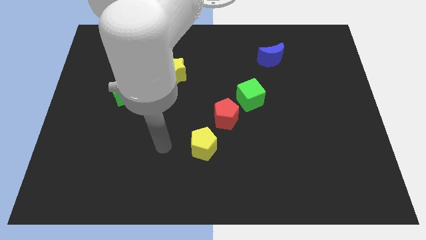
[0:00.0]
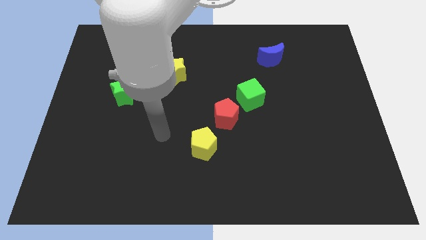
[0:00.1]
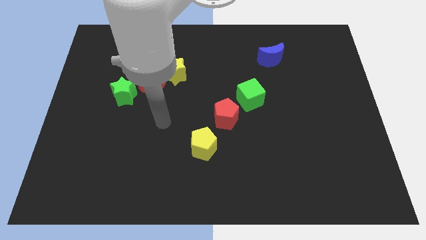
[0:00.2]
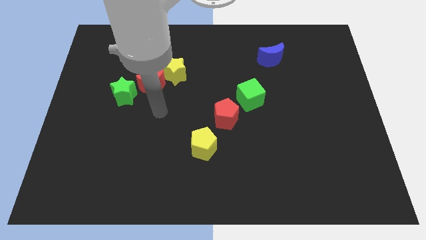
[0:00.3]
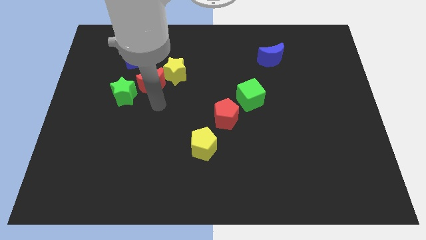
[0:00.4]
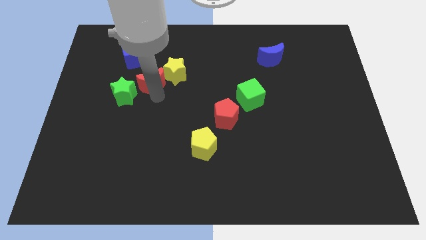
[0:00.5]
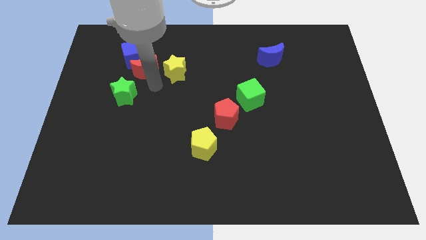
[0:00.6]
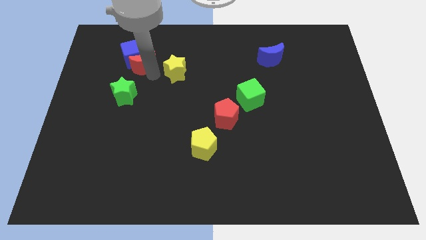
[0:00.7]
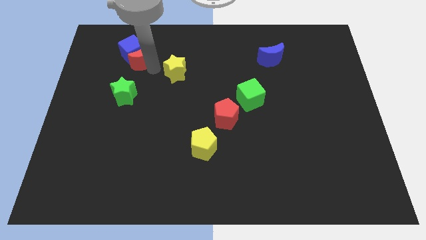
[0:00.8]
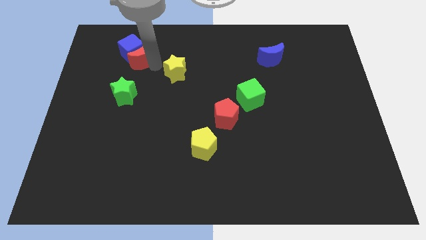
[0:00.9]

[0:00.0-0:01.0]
pull the yellow star apart from the red moon

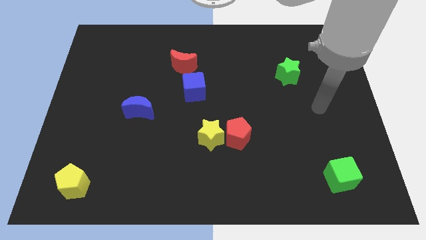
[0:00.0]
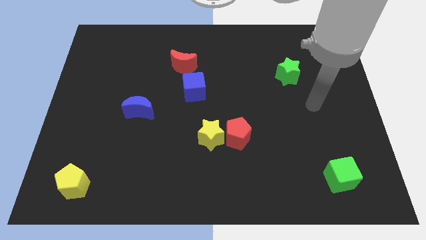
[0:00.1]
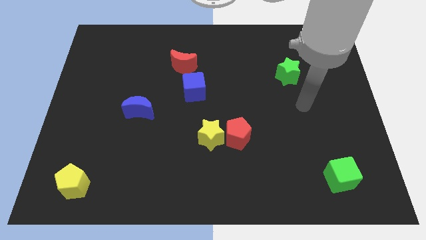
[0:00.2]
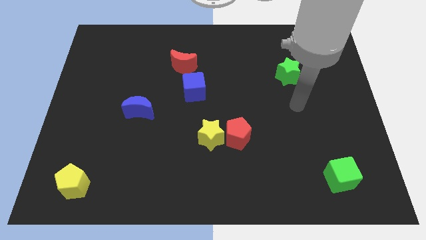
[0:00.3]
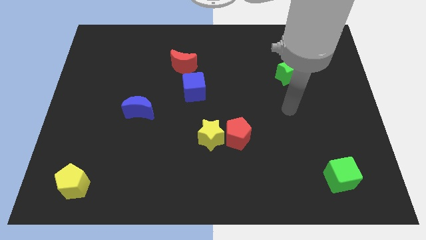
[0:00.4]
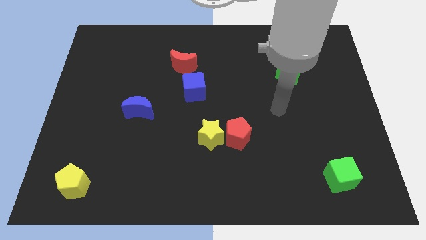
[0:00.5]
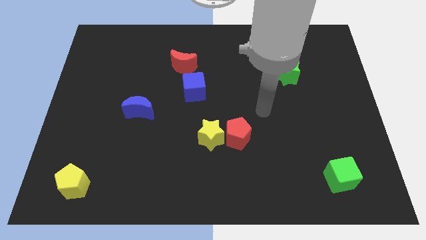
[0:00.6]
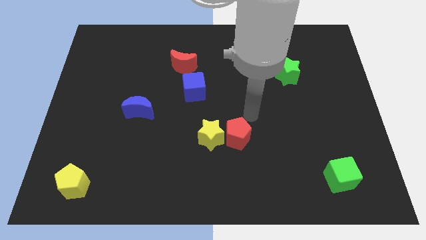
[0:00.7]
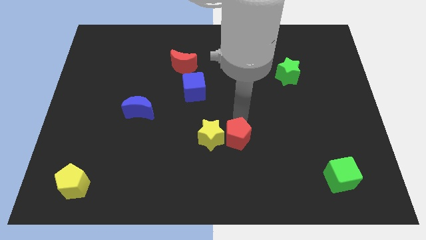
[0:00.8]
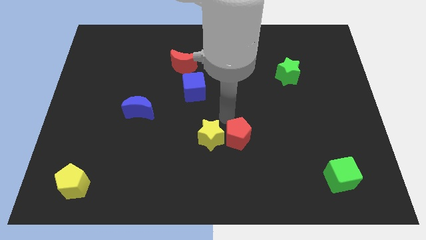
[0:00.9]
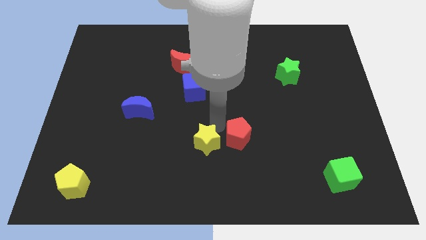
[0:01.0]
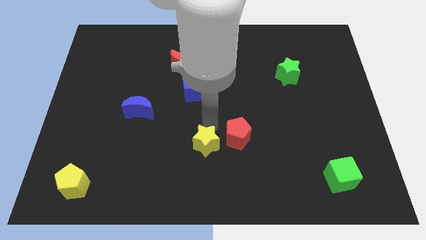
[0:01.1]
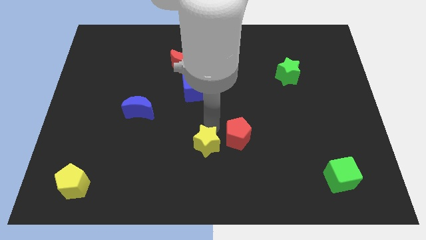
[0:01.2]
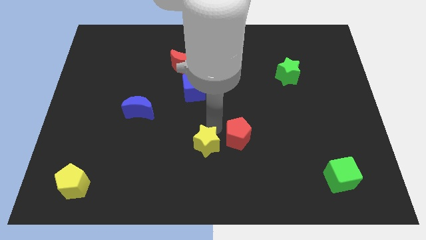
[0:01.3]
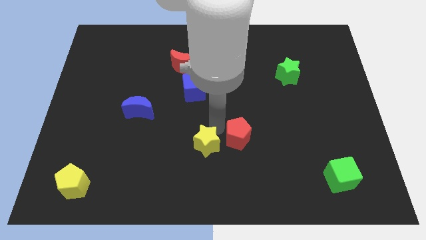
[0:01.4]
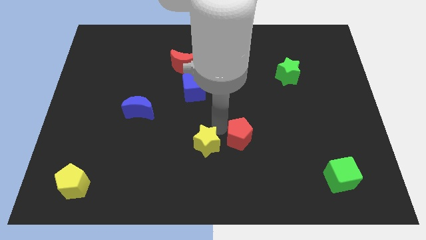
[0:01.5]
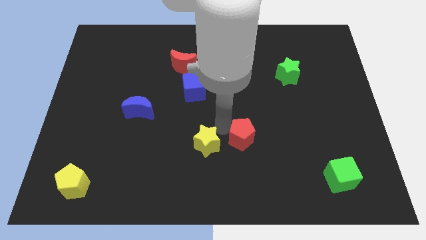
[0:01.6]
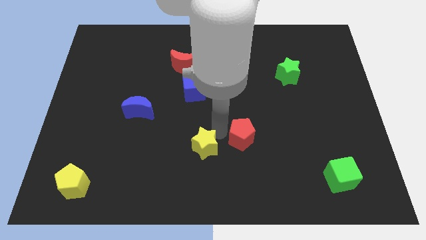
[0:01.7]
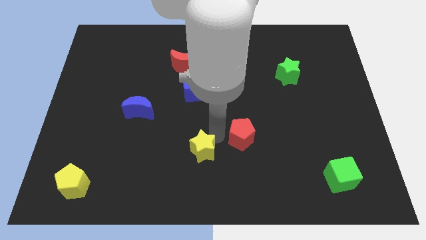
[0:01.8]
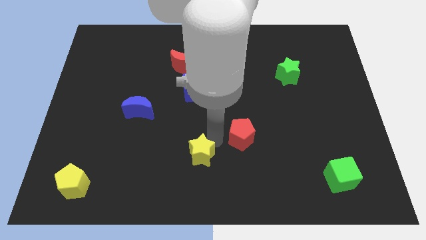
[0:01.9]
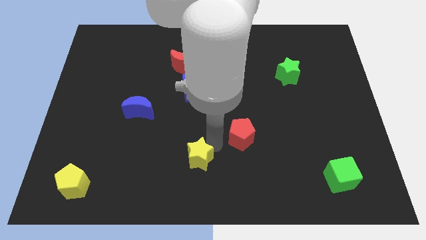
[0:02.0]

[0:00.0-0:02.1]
separate the red pentagon from the yellow star

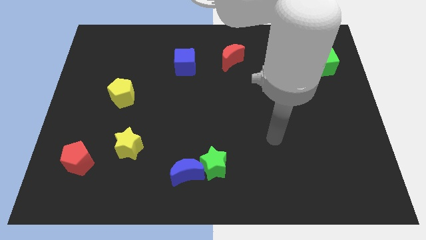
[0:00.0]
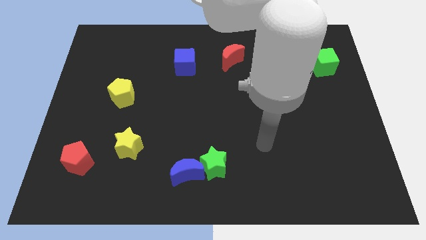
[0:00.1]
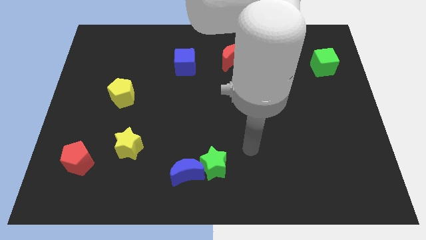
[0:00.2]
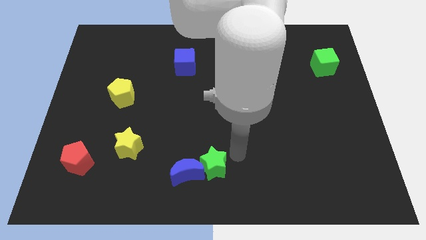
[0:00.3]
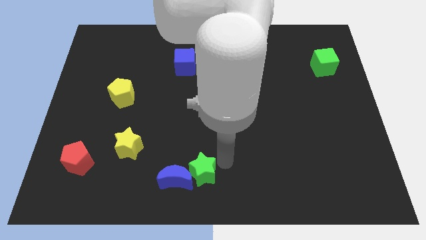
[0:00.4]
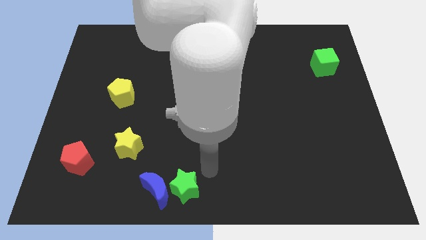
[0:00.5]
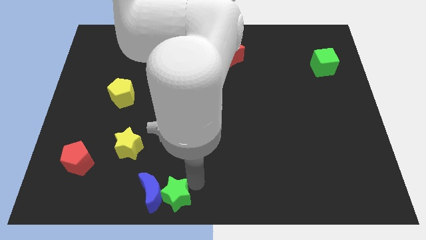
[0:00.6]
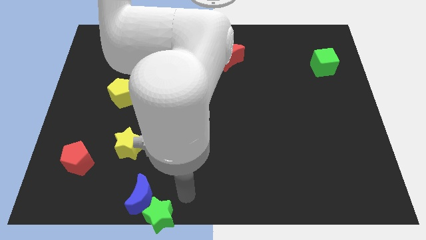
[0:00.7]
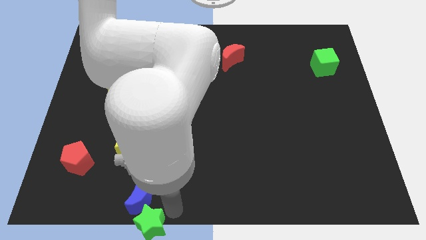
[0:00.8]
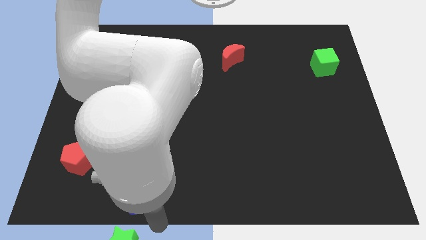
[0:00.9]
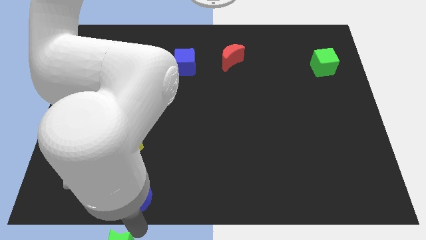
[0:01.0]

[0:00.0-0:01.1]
separate the blue moon from the green star

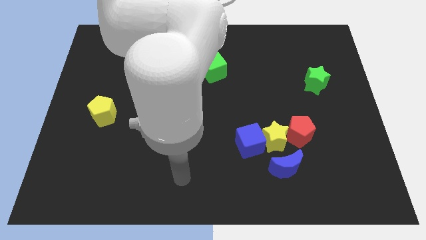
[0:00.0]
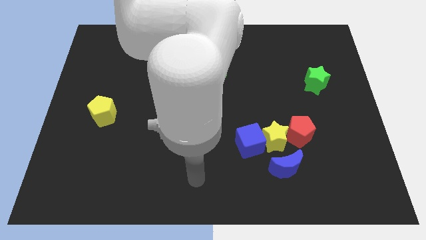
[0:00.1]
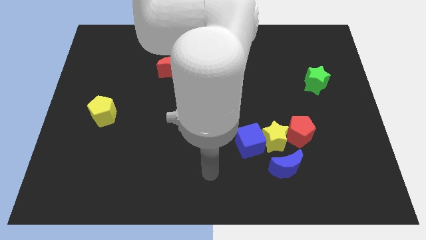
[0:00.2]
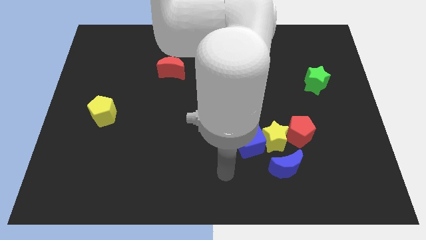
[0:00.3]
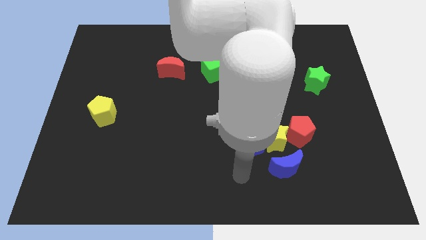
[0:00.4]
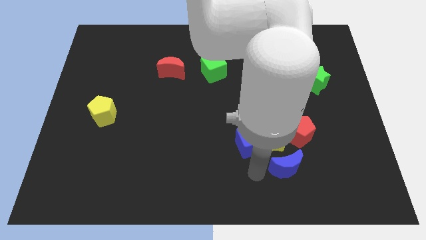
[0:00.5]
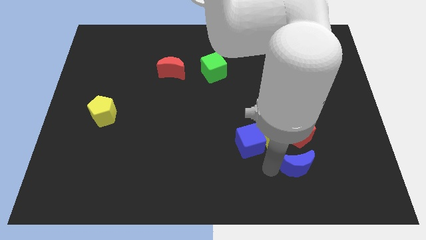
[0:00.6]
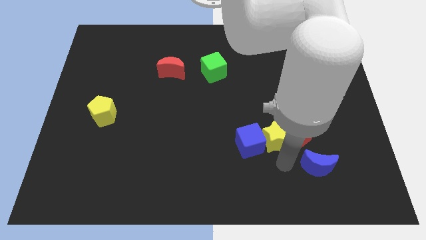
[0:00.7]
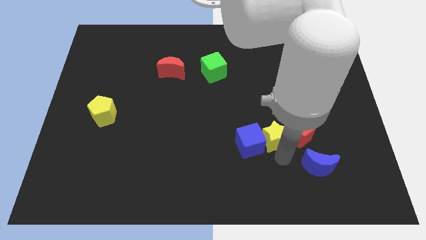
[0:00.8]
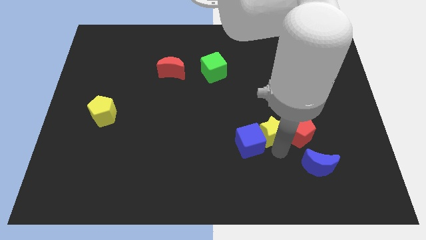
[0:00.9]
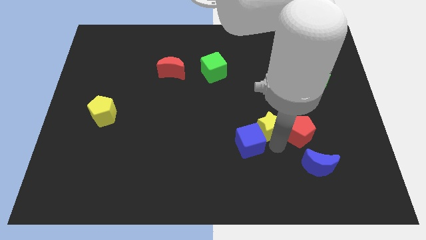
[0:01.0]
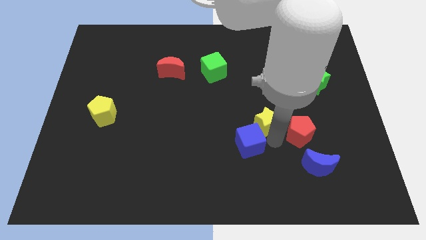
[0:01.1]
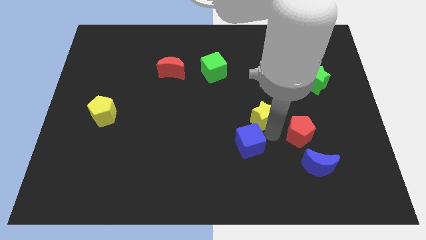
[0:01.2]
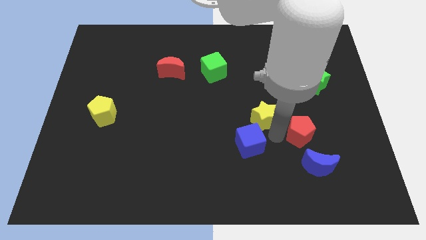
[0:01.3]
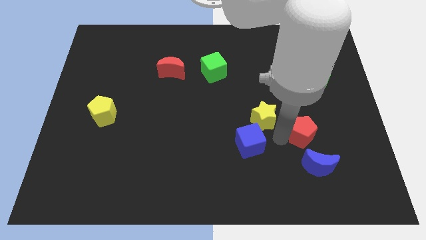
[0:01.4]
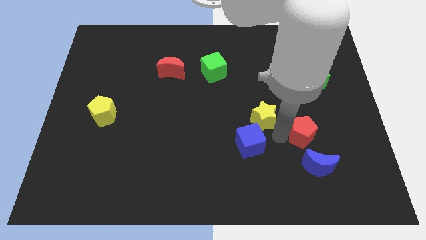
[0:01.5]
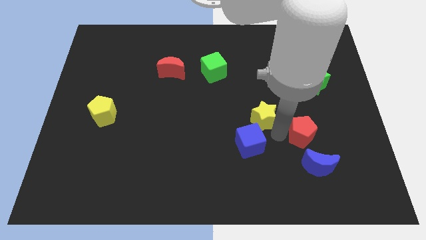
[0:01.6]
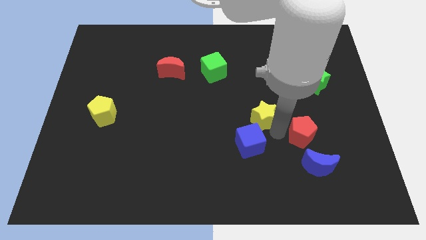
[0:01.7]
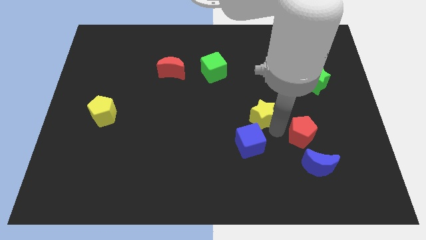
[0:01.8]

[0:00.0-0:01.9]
separate the yellow star from the blue cube, red pentagon, and blue moon

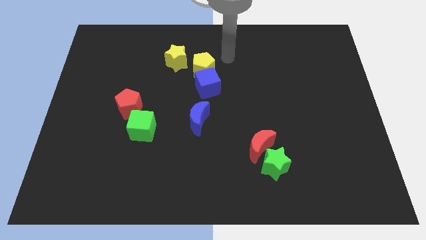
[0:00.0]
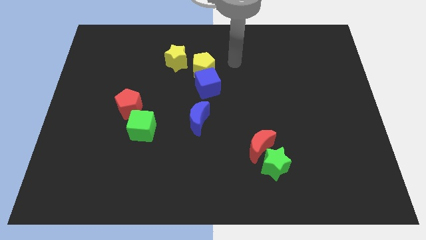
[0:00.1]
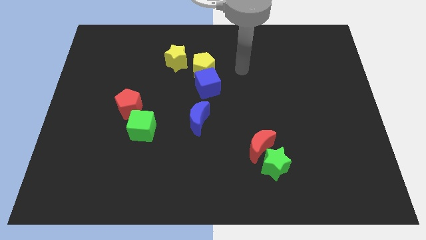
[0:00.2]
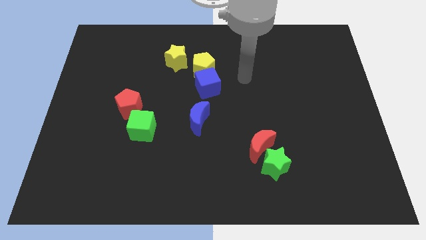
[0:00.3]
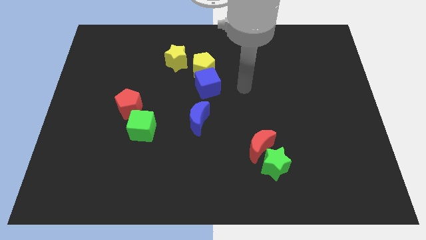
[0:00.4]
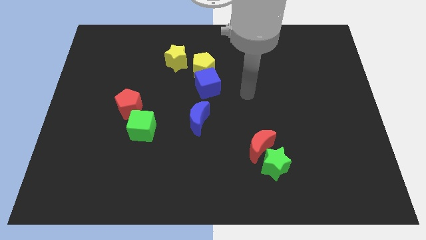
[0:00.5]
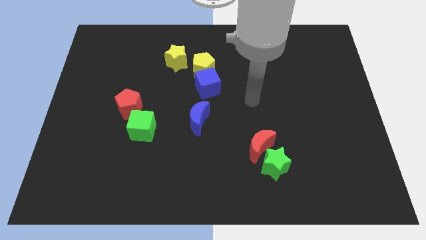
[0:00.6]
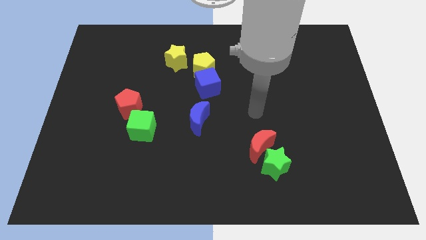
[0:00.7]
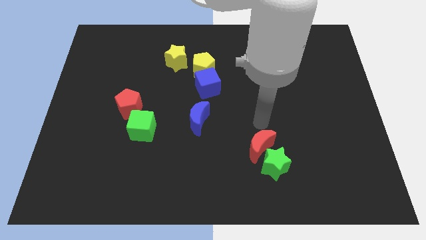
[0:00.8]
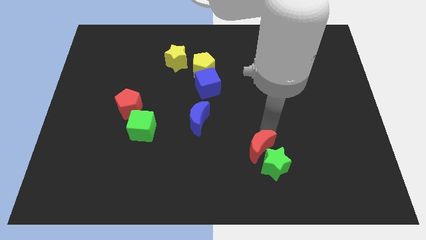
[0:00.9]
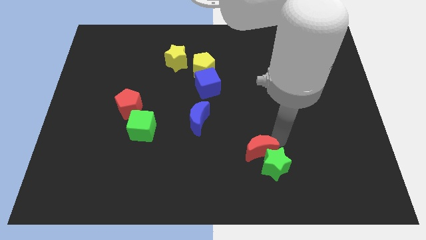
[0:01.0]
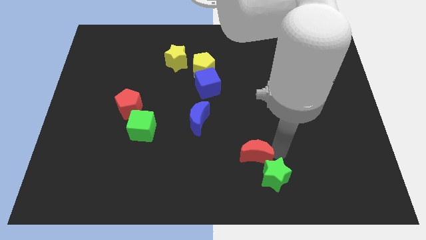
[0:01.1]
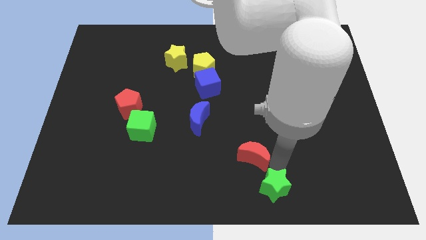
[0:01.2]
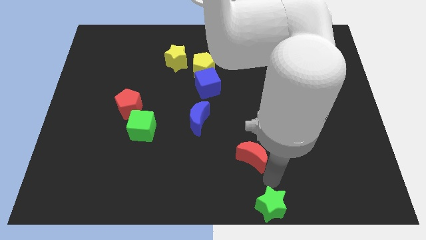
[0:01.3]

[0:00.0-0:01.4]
move the red moon away from the green star

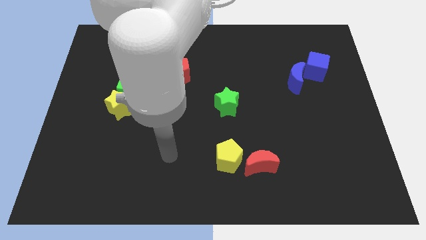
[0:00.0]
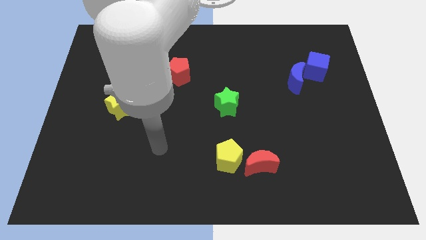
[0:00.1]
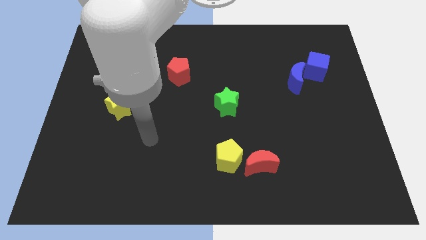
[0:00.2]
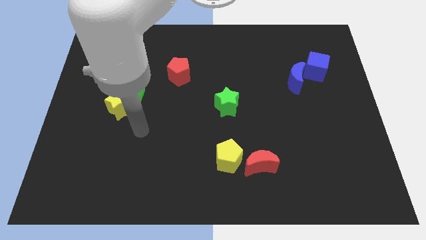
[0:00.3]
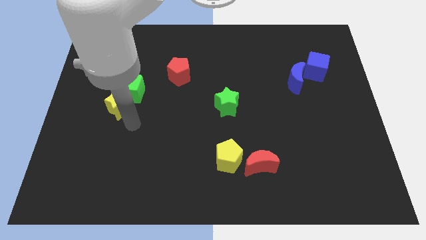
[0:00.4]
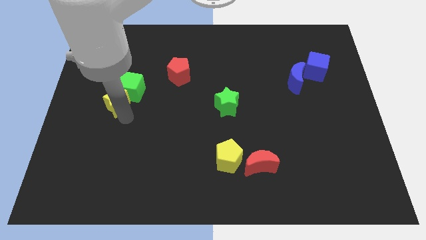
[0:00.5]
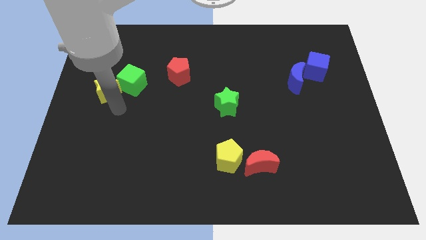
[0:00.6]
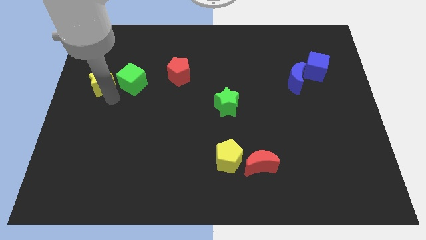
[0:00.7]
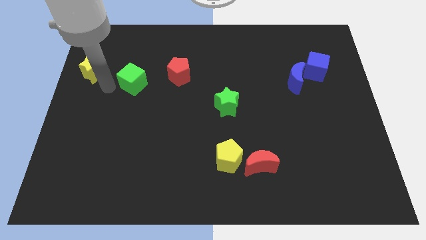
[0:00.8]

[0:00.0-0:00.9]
pull the green cube apart from the yellow star

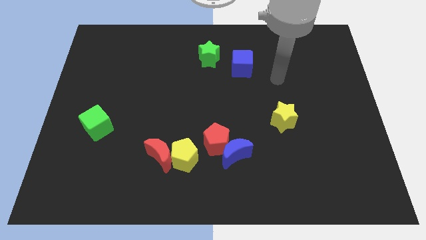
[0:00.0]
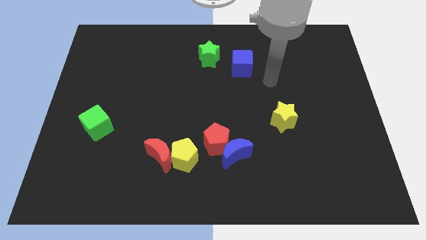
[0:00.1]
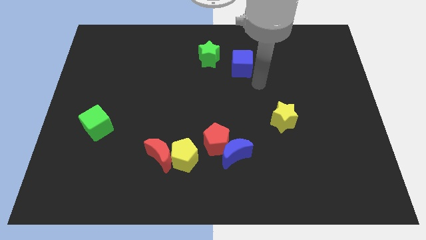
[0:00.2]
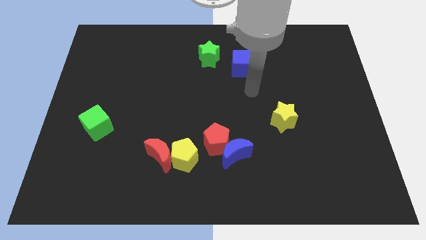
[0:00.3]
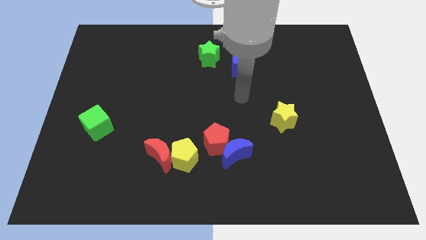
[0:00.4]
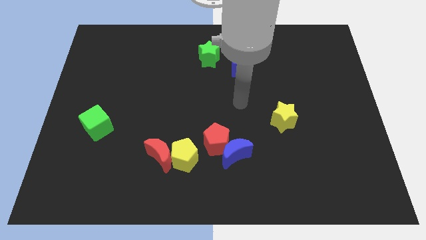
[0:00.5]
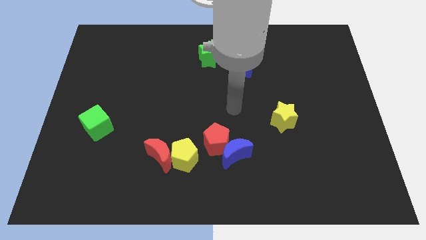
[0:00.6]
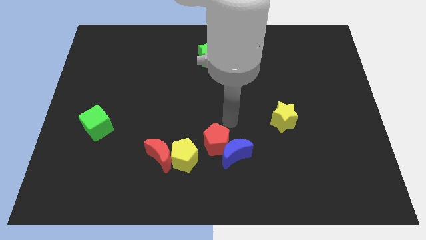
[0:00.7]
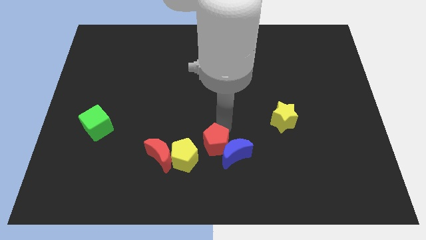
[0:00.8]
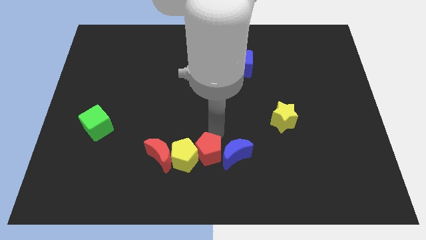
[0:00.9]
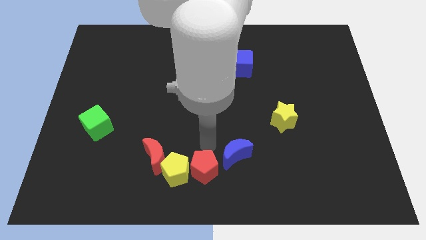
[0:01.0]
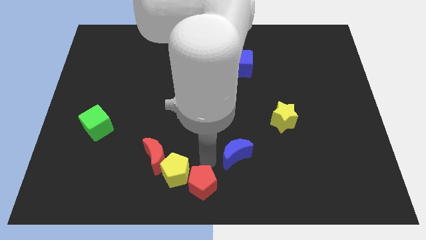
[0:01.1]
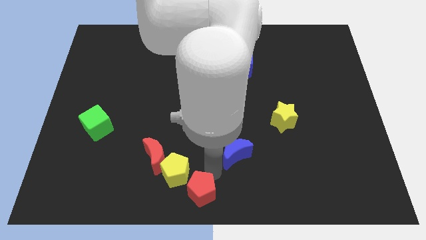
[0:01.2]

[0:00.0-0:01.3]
move the blue moon away from the red pentagon
